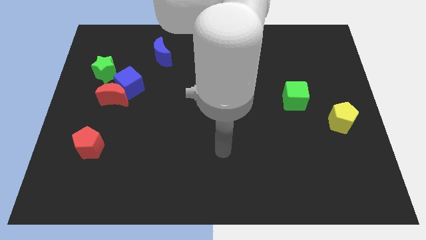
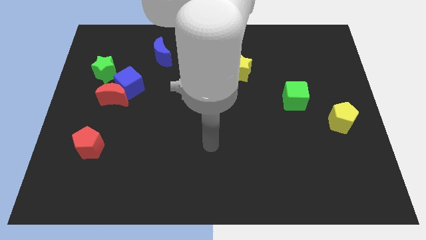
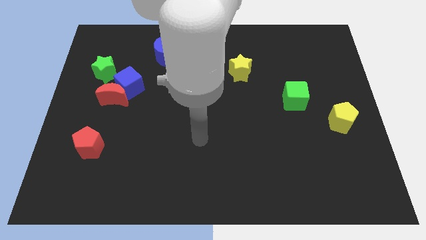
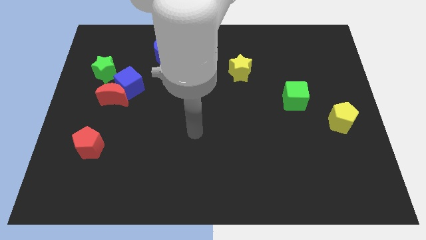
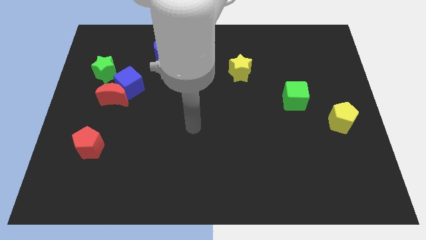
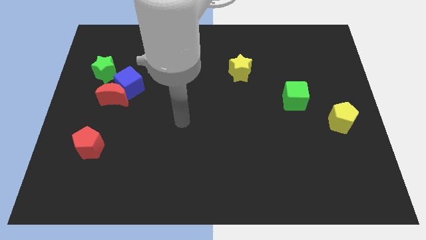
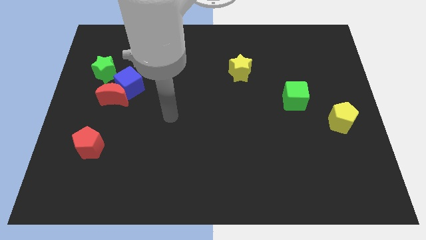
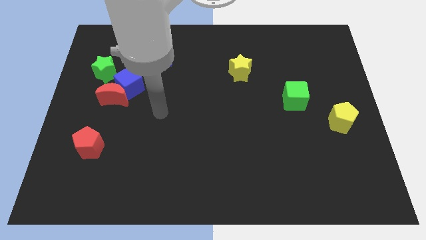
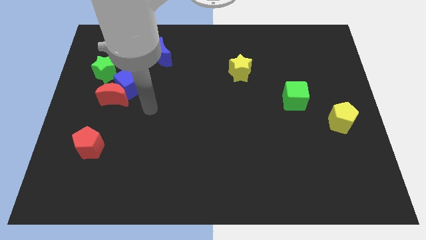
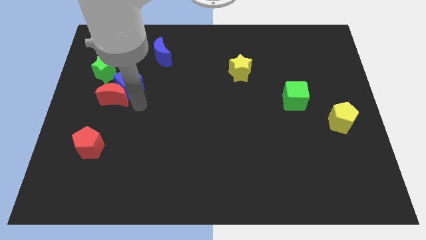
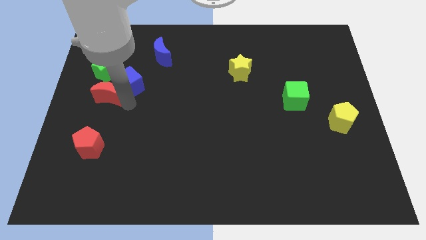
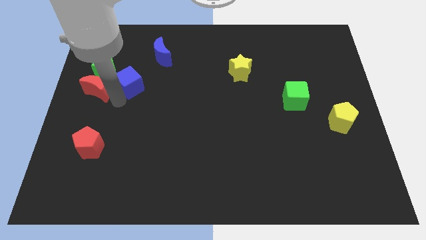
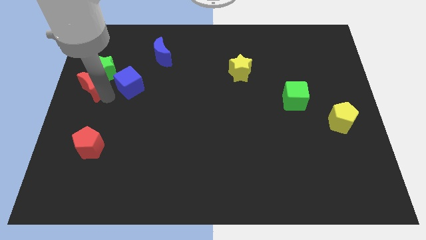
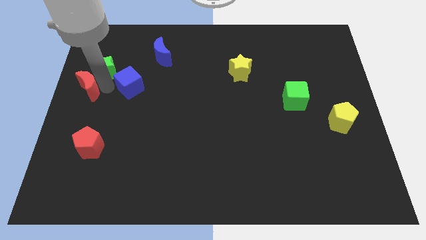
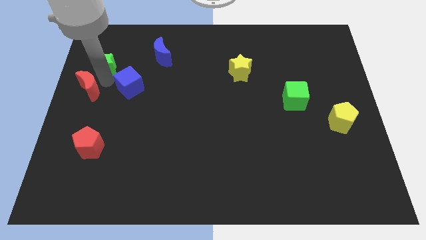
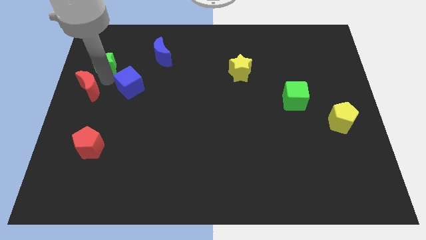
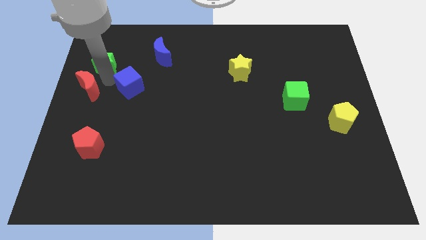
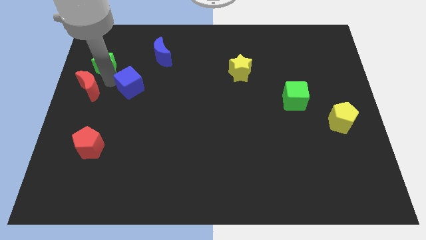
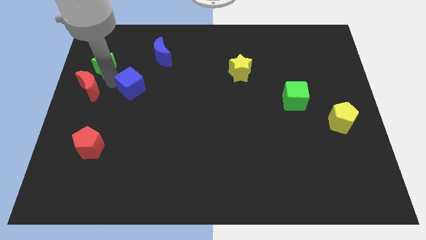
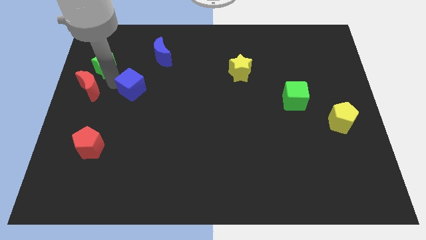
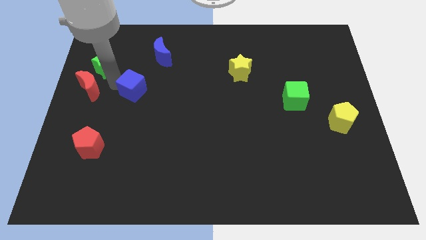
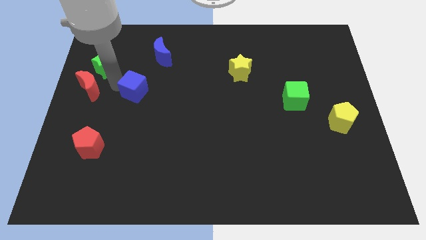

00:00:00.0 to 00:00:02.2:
move the blue cube away from the red moon and green star

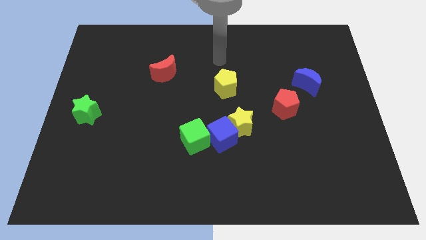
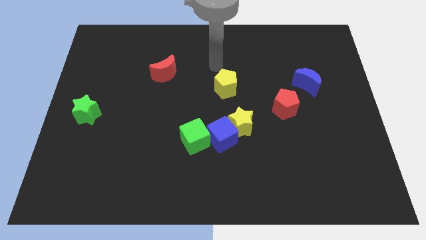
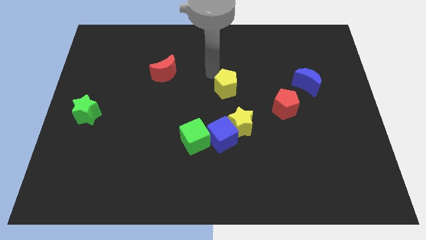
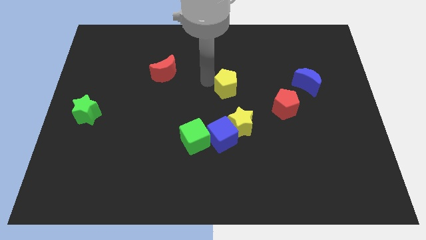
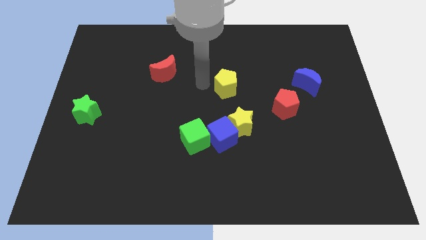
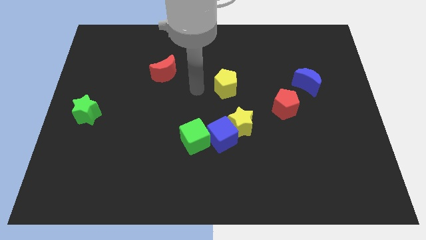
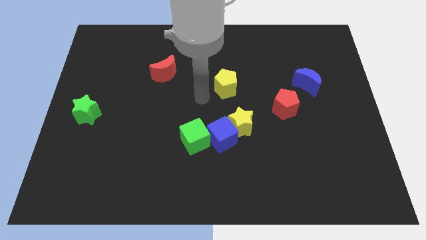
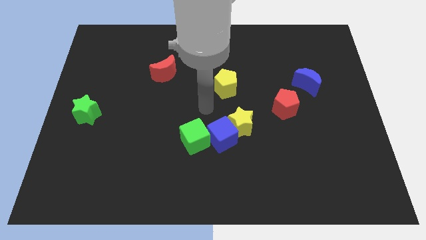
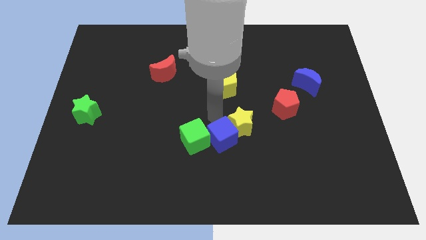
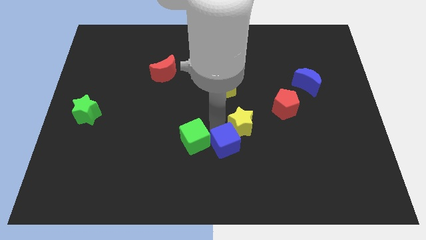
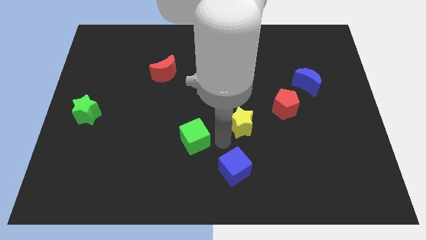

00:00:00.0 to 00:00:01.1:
pull the yellow star apart from the blue cube

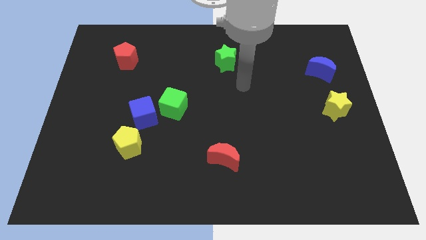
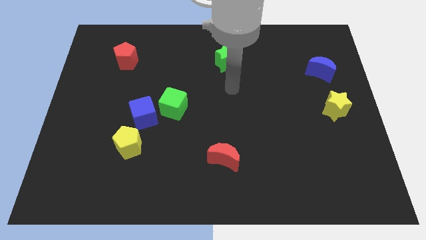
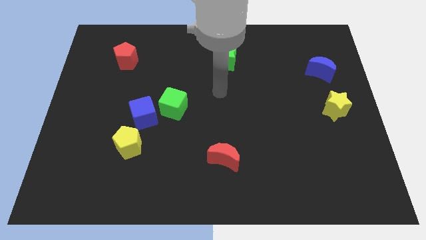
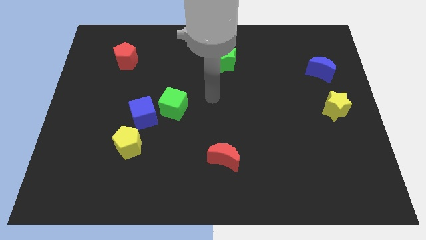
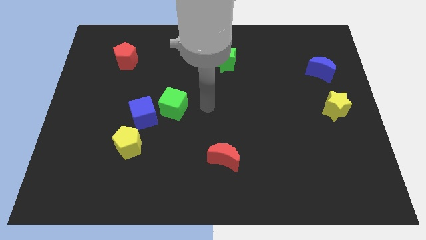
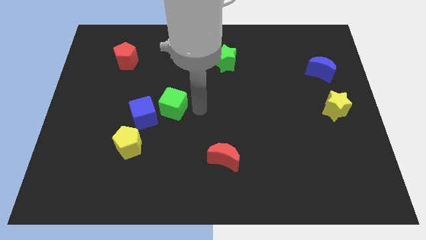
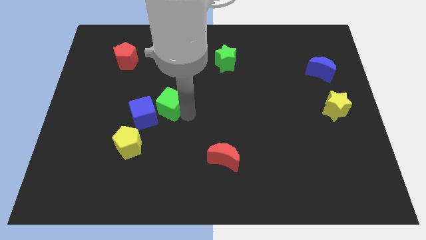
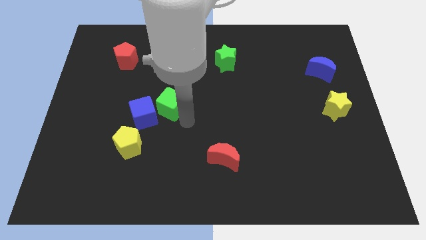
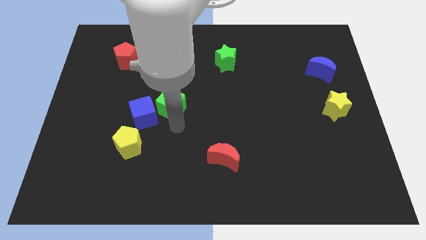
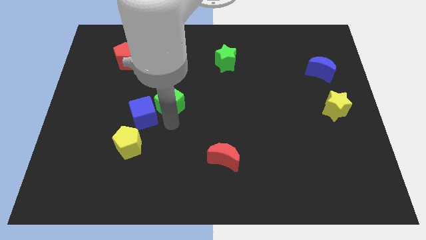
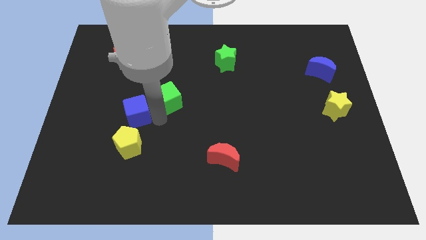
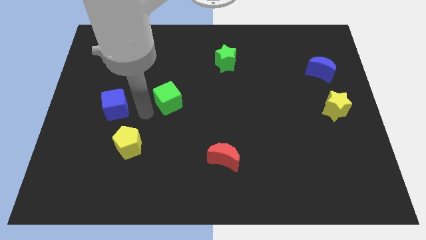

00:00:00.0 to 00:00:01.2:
move the green cube away from the blue cube

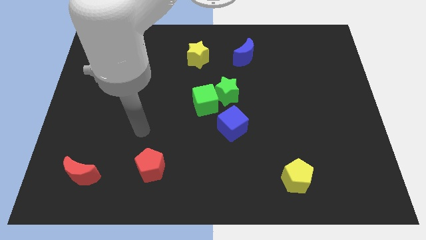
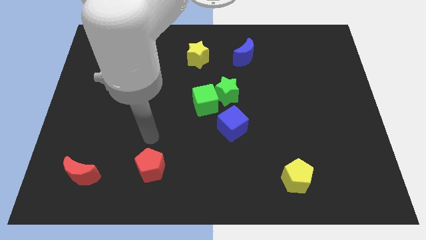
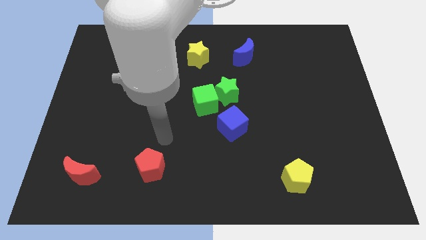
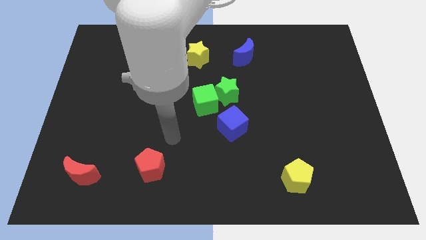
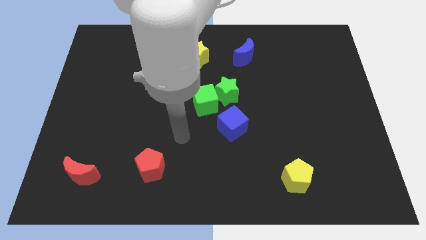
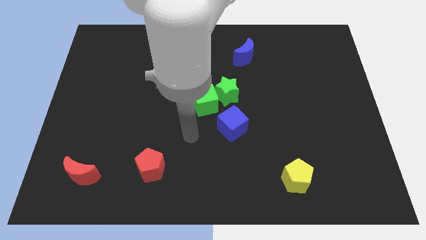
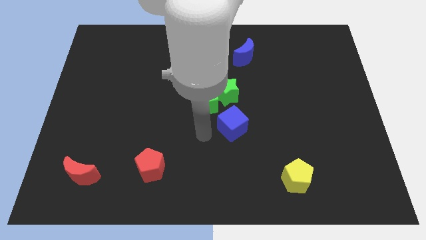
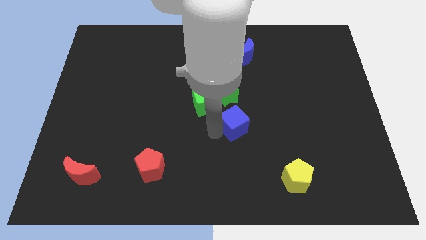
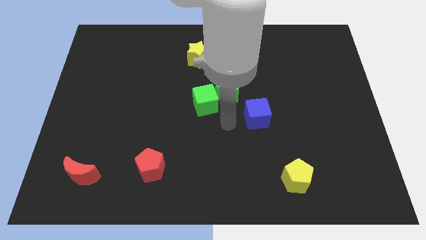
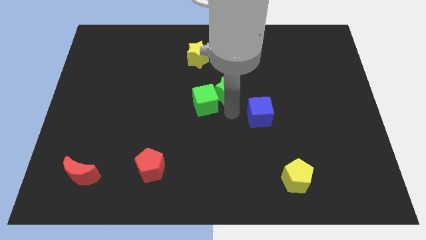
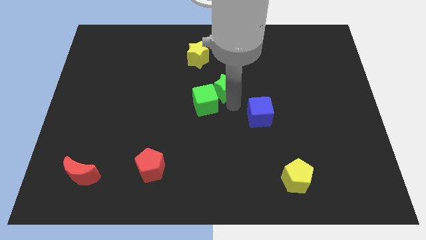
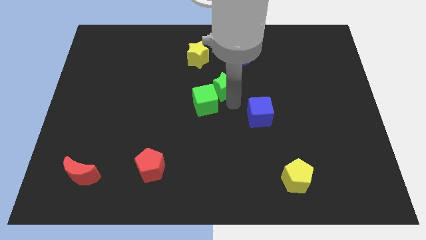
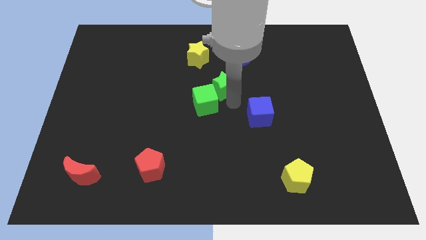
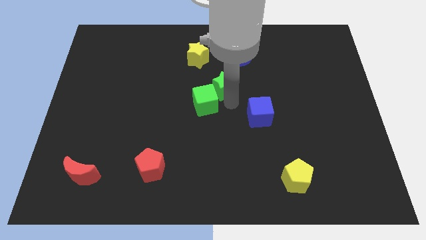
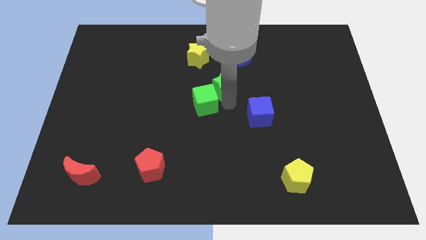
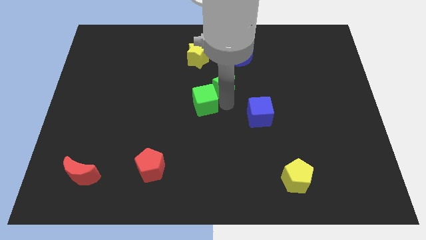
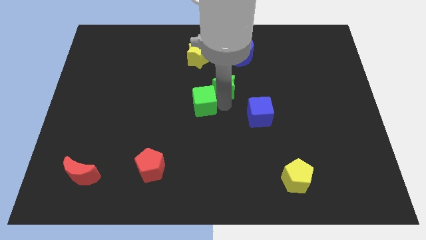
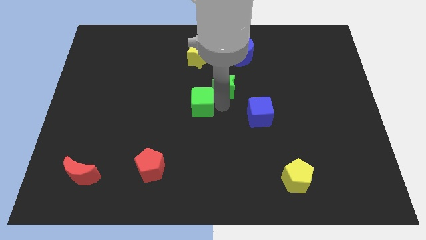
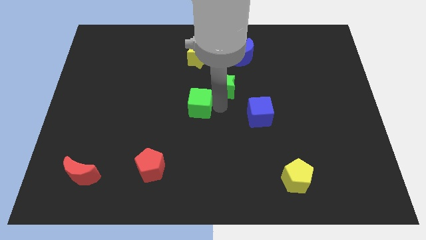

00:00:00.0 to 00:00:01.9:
separate the green cube from the green star and blue cube

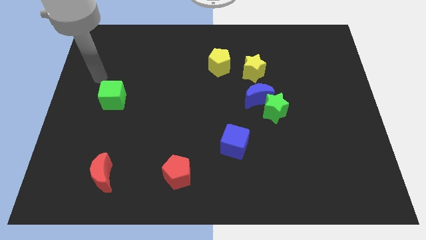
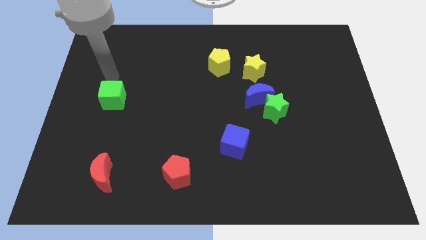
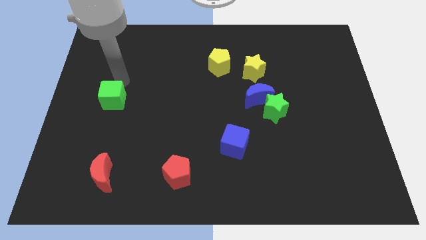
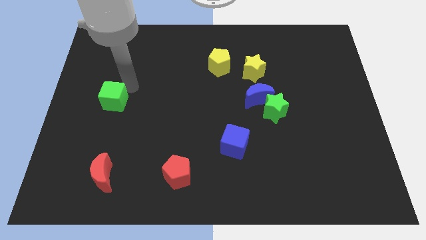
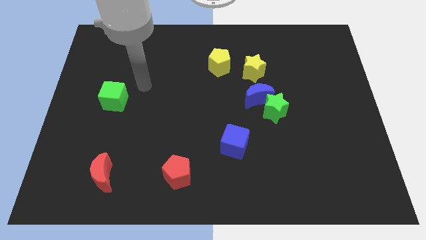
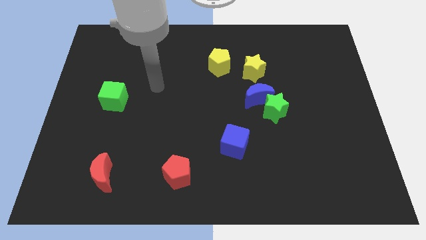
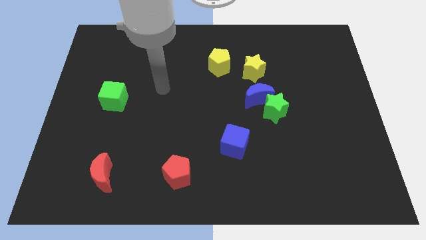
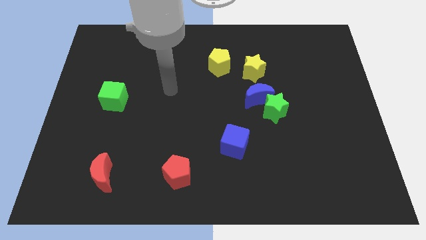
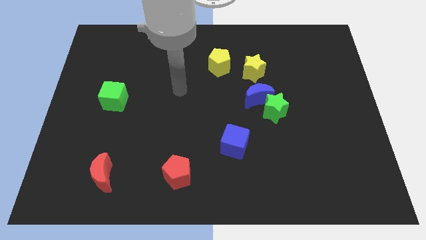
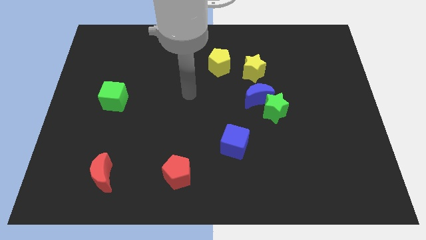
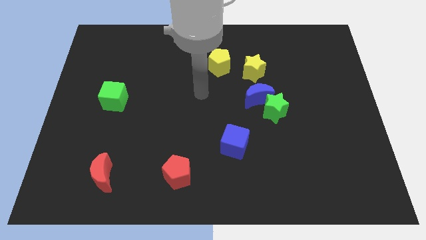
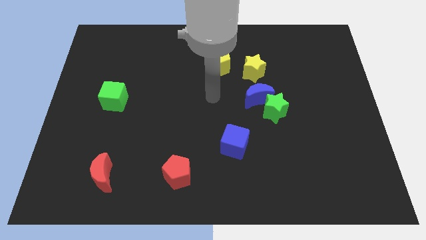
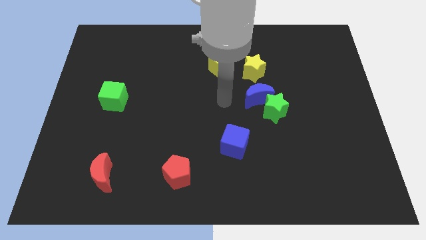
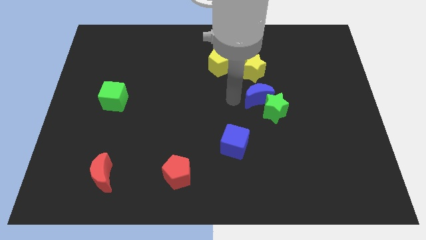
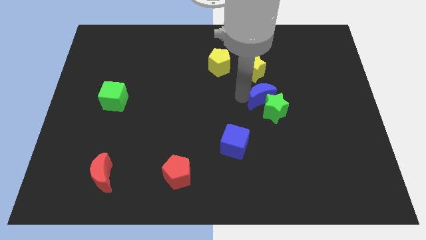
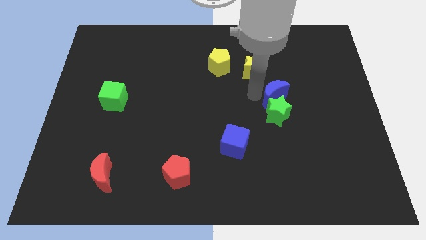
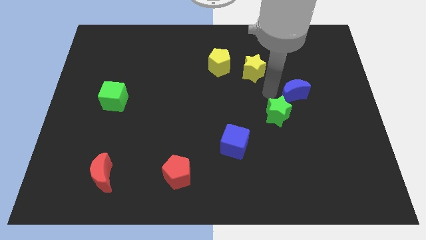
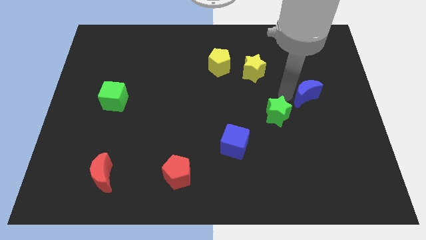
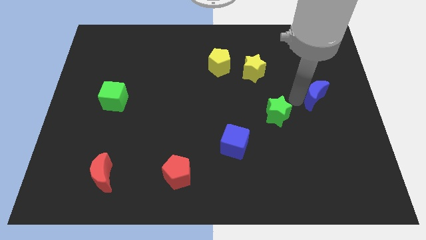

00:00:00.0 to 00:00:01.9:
separate the green star from the blue moon

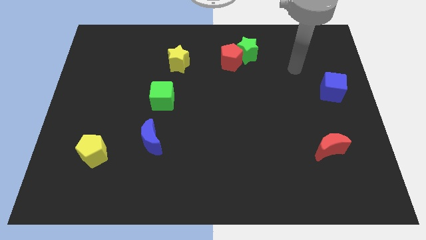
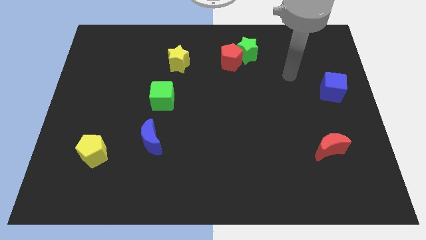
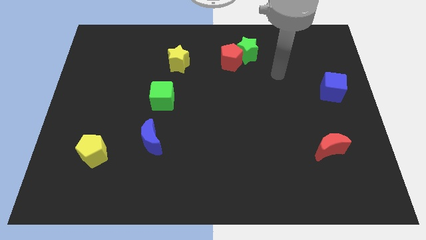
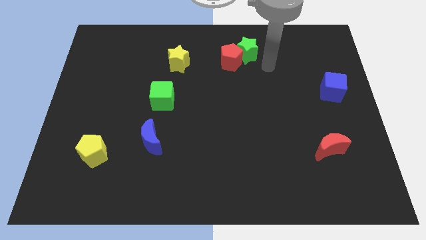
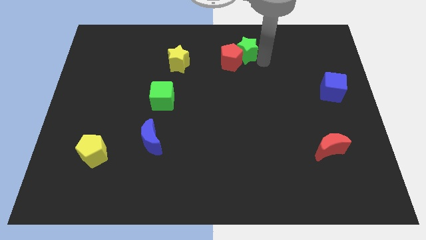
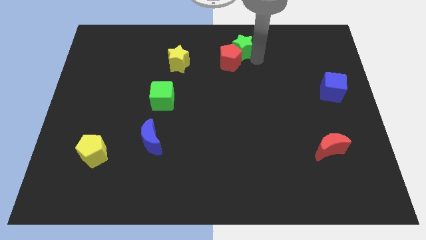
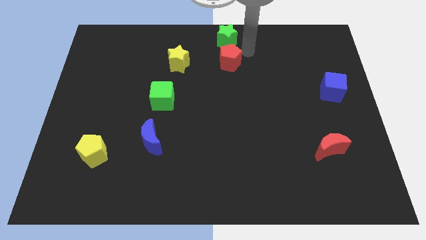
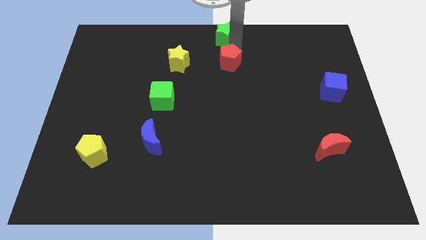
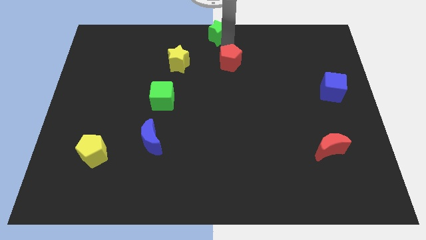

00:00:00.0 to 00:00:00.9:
pull the red pentagon apart from the green star
